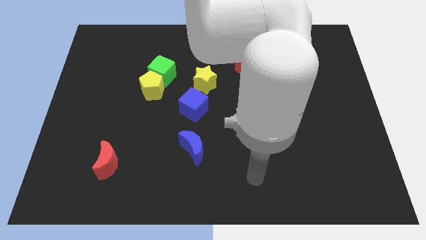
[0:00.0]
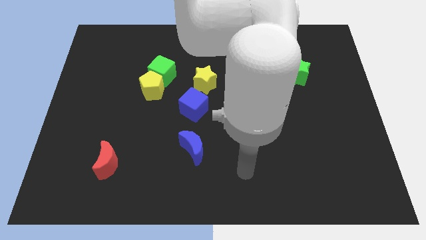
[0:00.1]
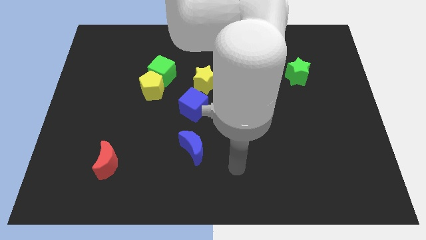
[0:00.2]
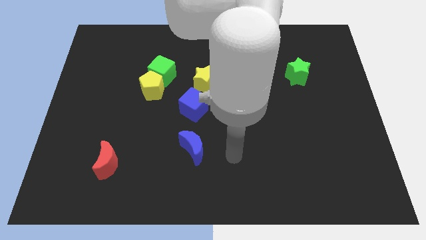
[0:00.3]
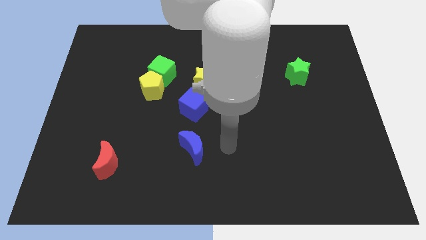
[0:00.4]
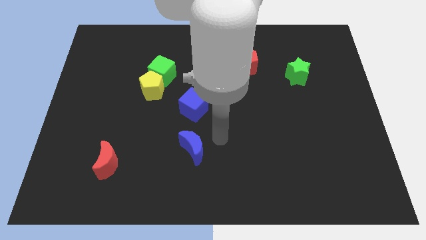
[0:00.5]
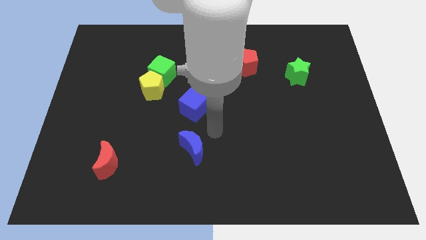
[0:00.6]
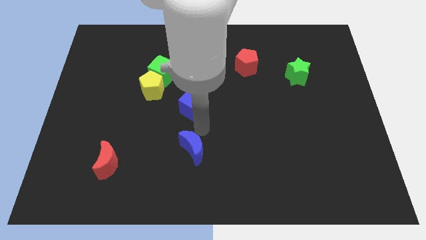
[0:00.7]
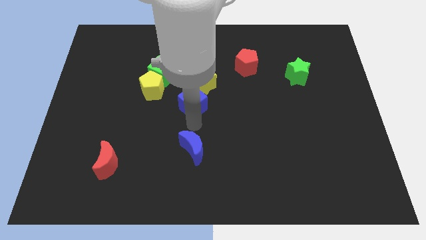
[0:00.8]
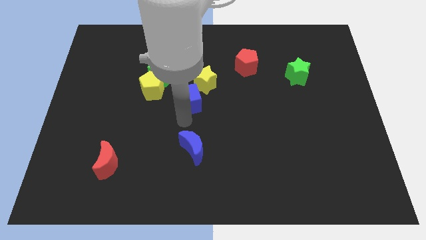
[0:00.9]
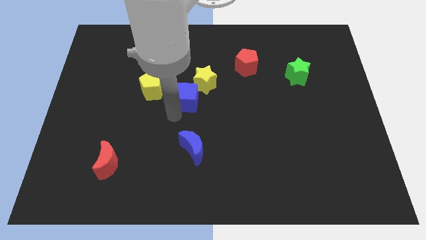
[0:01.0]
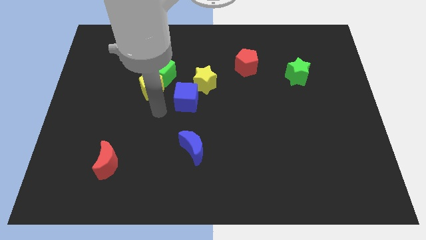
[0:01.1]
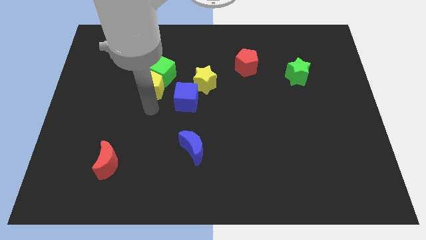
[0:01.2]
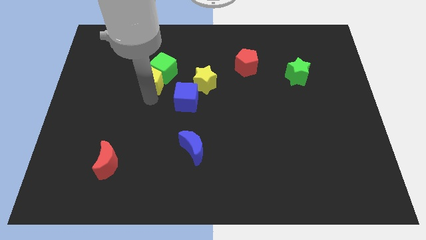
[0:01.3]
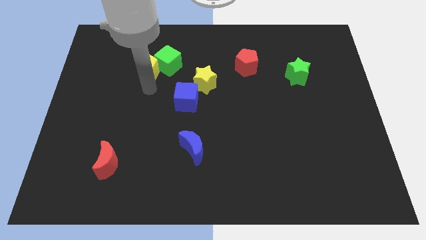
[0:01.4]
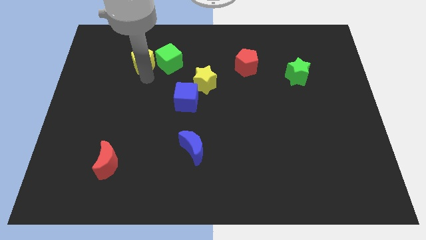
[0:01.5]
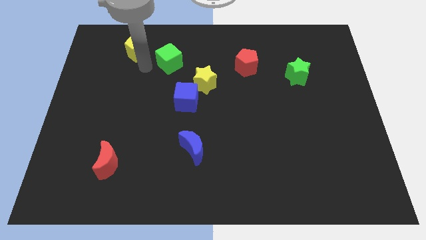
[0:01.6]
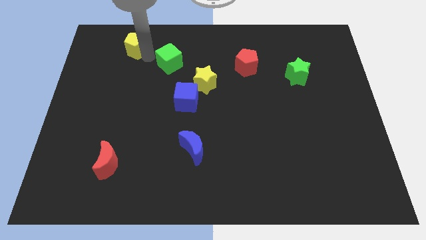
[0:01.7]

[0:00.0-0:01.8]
move the green cube away from the yellow pentagon

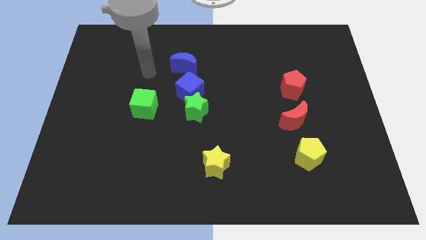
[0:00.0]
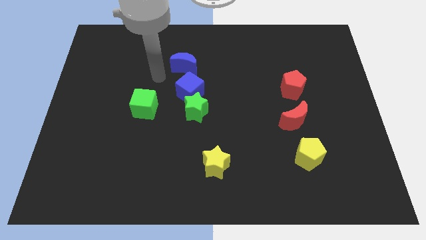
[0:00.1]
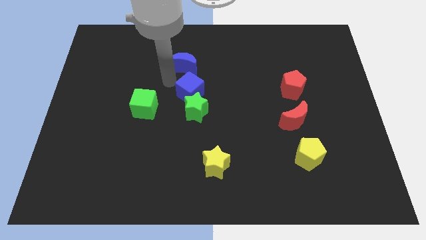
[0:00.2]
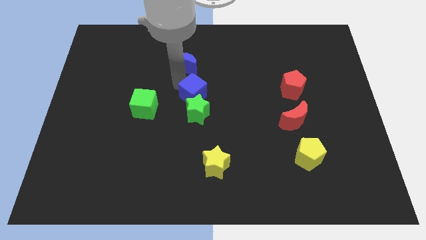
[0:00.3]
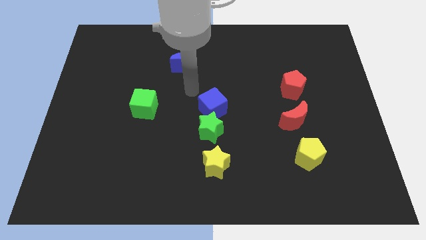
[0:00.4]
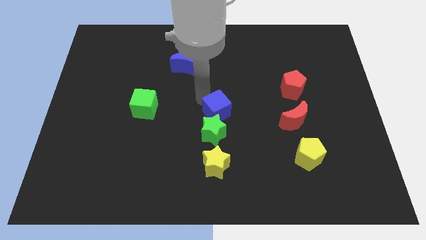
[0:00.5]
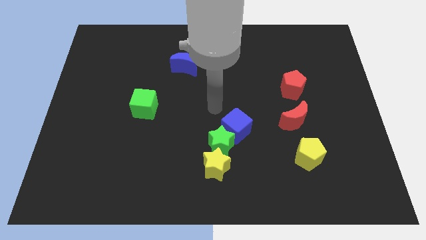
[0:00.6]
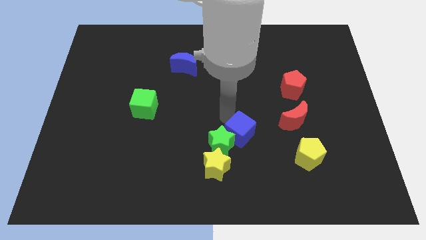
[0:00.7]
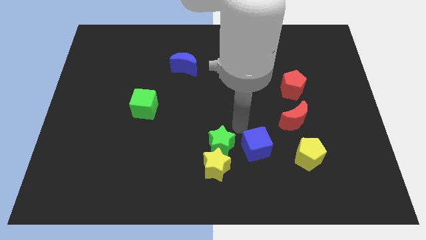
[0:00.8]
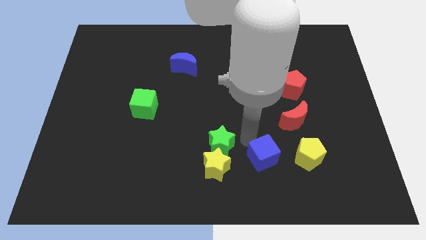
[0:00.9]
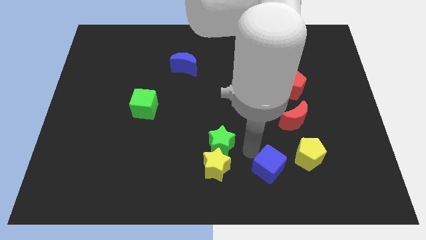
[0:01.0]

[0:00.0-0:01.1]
move the green star away from the blue cube

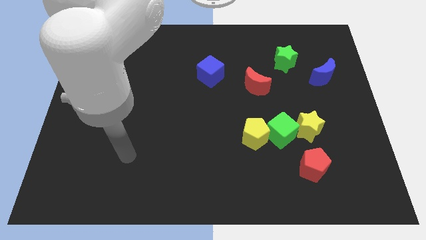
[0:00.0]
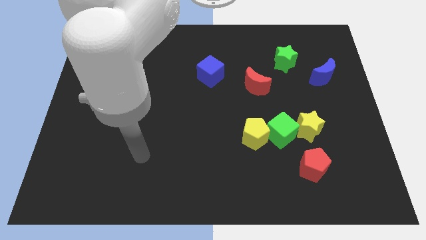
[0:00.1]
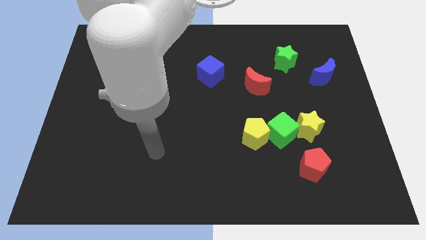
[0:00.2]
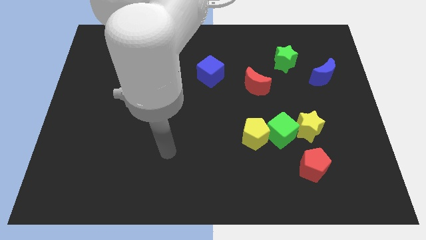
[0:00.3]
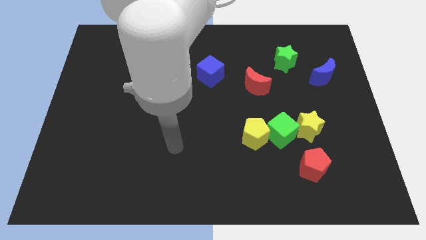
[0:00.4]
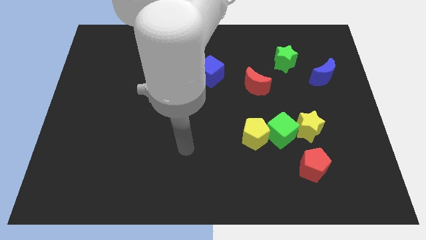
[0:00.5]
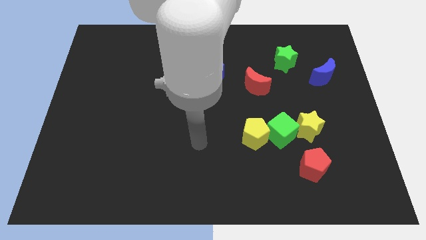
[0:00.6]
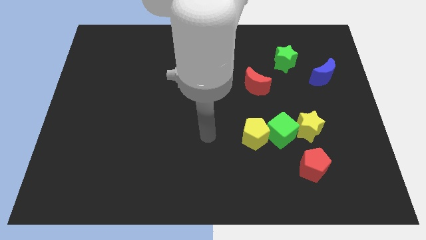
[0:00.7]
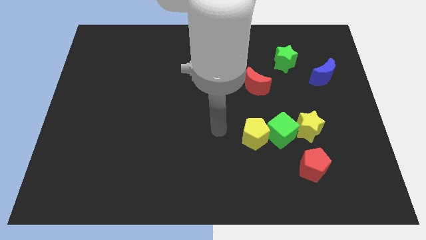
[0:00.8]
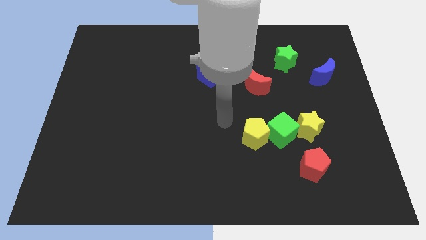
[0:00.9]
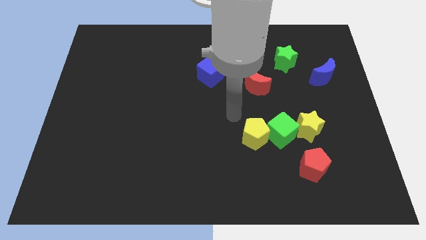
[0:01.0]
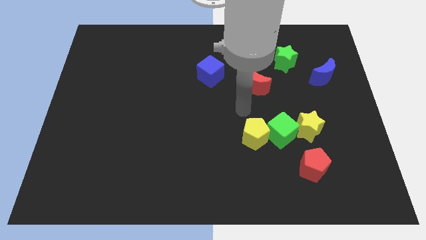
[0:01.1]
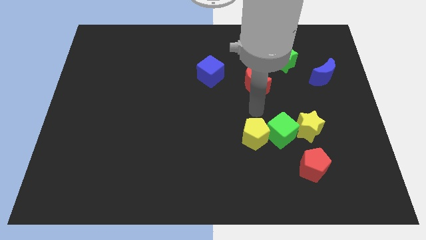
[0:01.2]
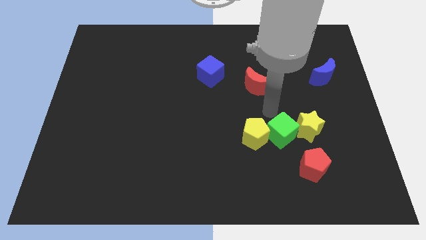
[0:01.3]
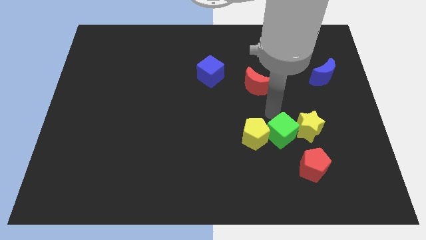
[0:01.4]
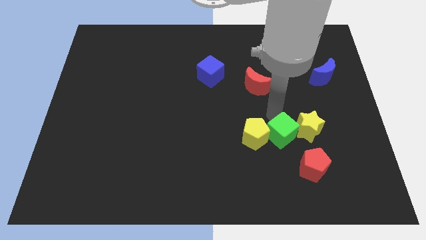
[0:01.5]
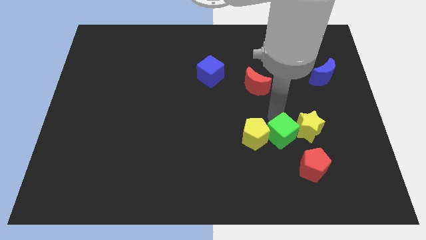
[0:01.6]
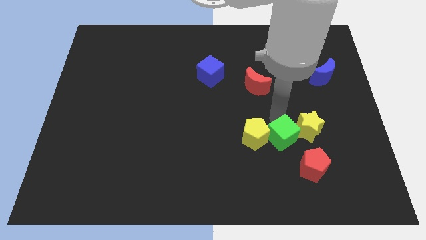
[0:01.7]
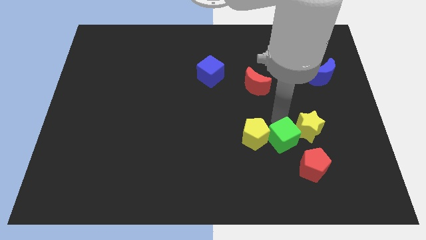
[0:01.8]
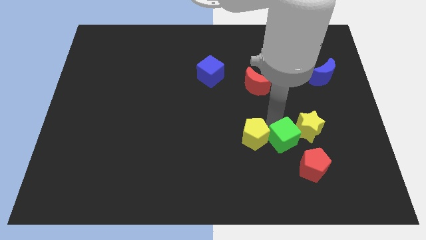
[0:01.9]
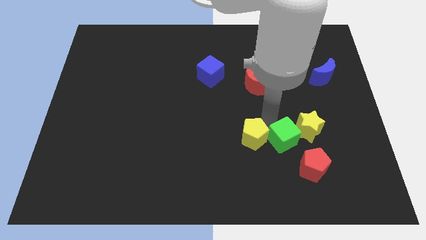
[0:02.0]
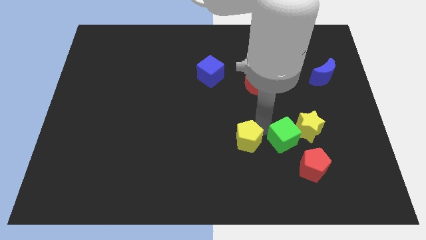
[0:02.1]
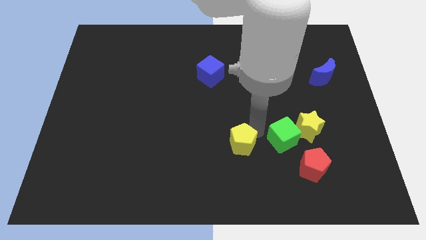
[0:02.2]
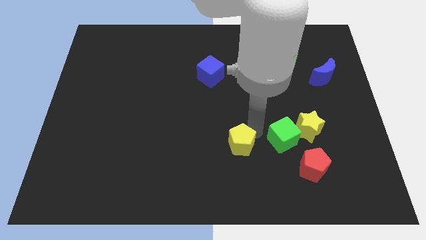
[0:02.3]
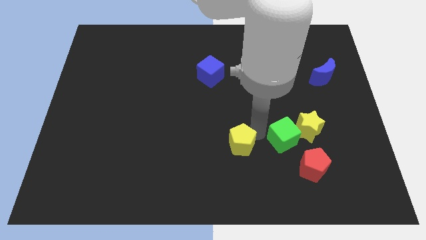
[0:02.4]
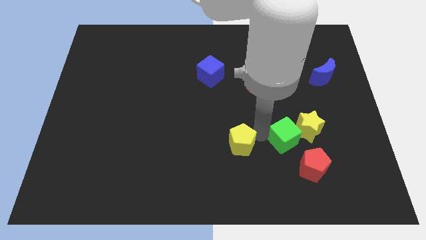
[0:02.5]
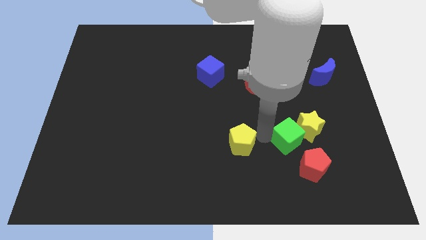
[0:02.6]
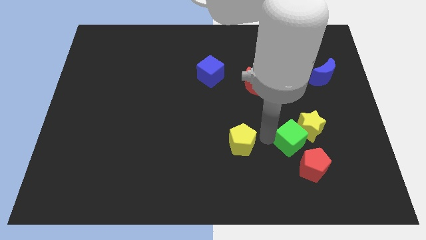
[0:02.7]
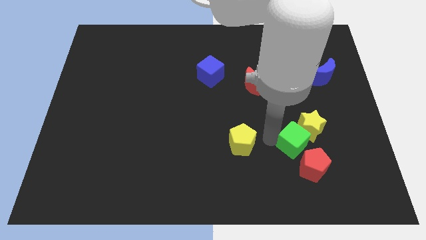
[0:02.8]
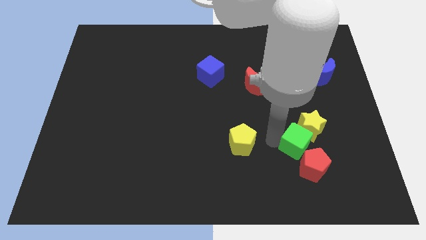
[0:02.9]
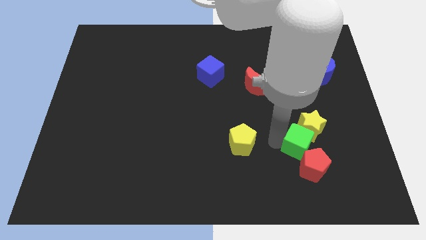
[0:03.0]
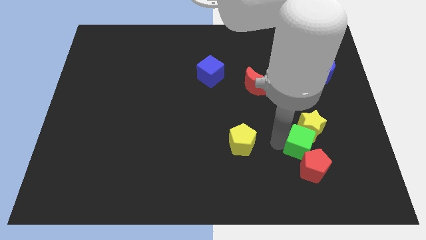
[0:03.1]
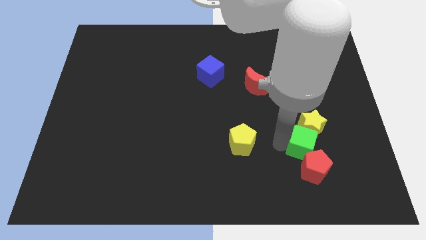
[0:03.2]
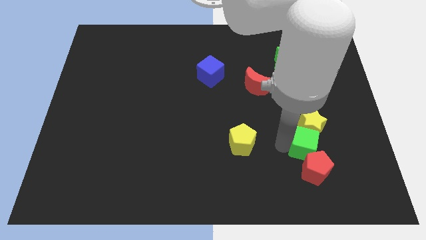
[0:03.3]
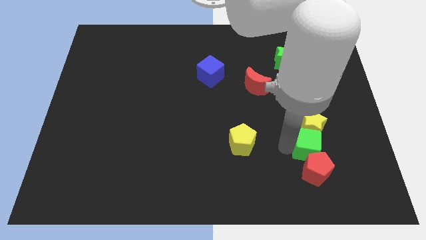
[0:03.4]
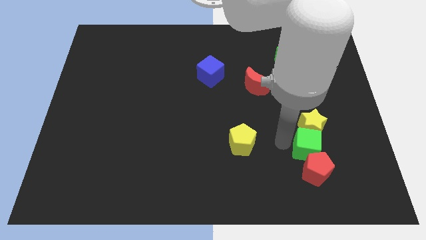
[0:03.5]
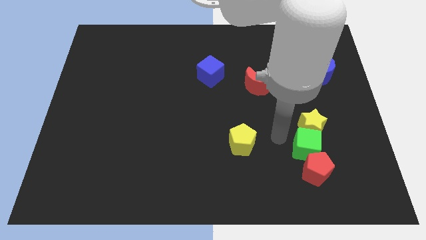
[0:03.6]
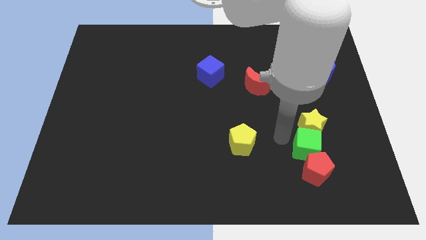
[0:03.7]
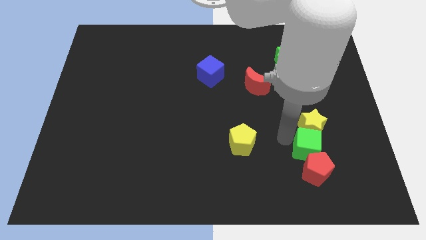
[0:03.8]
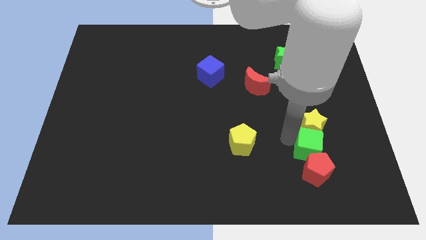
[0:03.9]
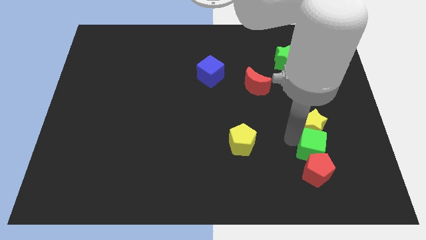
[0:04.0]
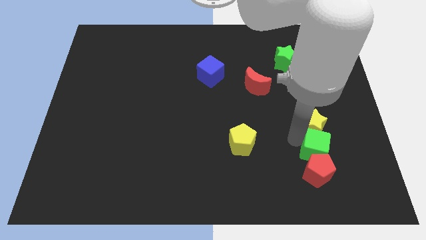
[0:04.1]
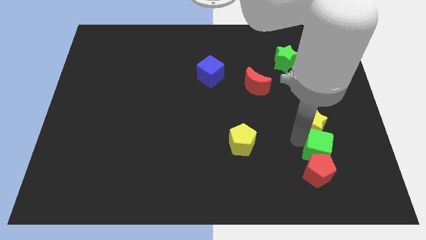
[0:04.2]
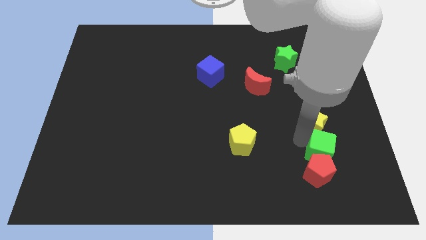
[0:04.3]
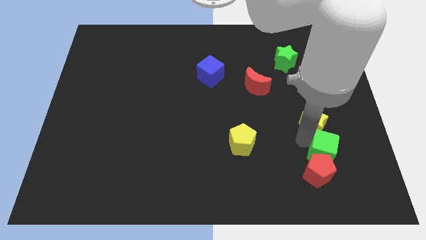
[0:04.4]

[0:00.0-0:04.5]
separate the green cube from the yellow star and yellow pentagon

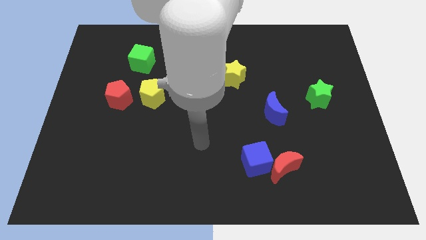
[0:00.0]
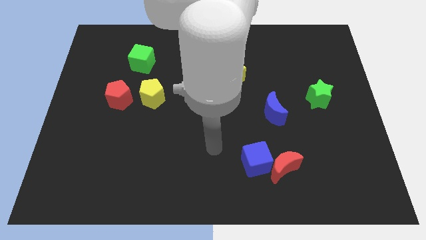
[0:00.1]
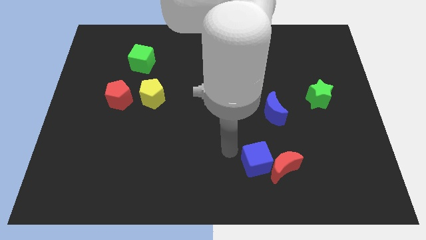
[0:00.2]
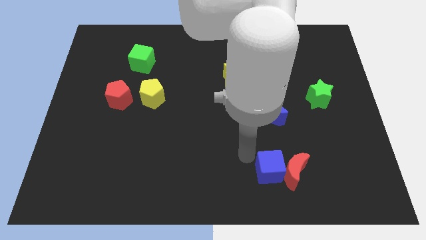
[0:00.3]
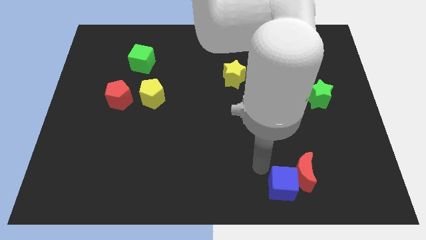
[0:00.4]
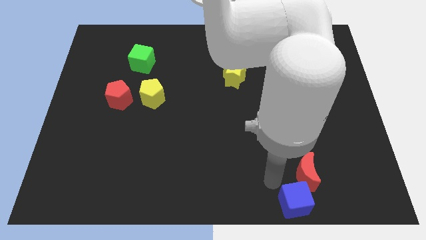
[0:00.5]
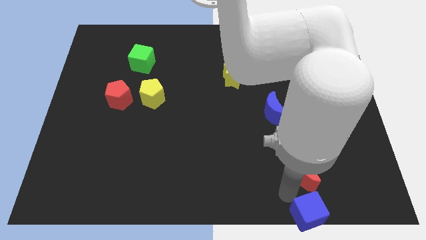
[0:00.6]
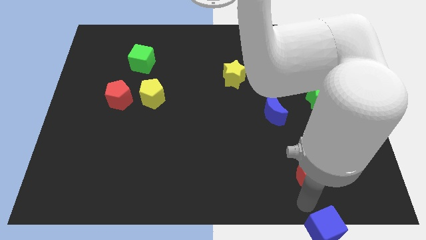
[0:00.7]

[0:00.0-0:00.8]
move the red moon away from the blue cube

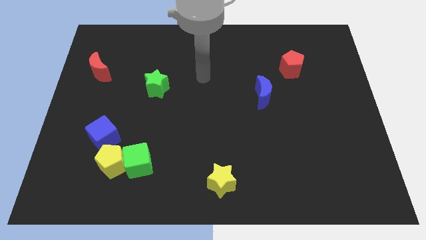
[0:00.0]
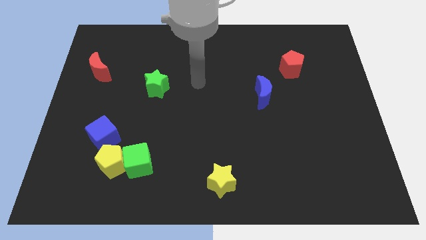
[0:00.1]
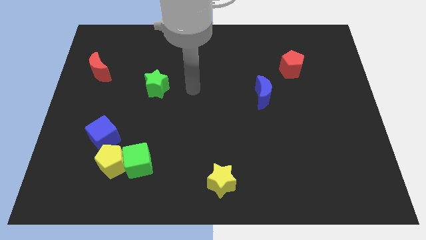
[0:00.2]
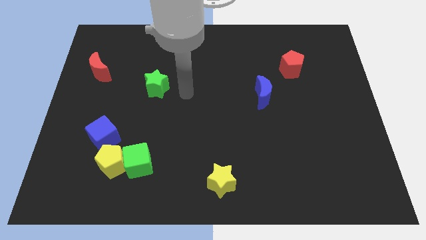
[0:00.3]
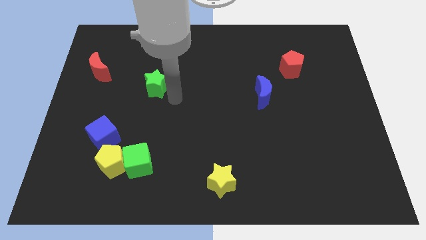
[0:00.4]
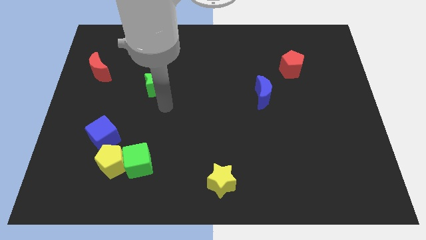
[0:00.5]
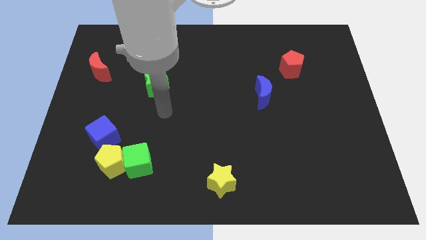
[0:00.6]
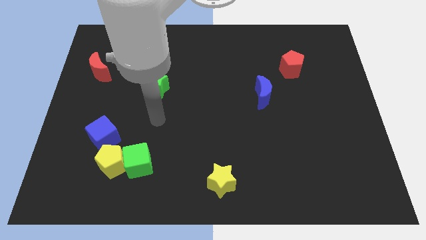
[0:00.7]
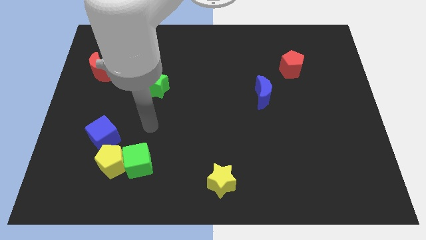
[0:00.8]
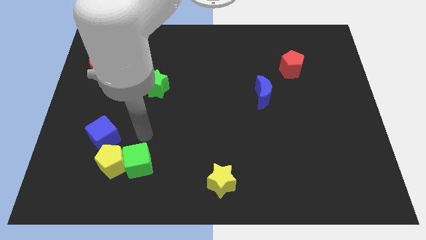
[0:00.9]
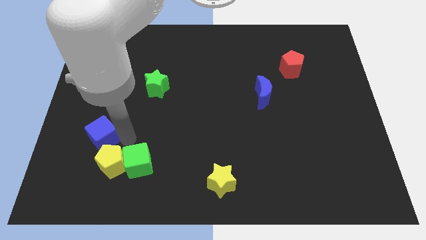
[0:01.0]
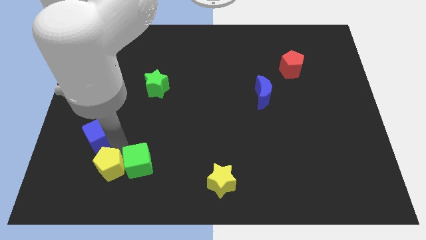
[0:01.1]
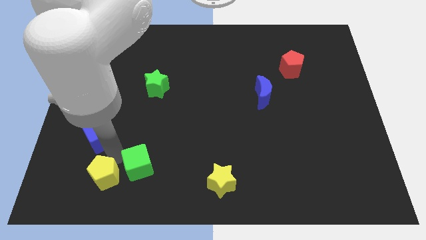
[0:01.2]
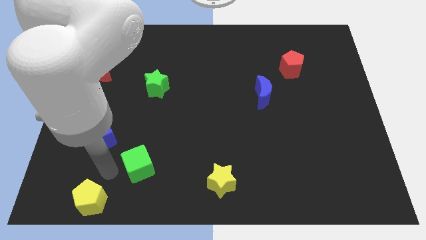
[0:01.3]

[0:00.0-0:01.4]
pull the green cube apart from the yellow pentagon
